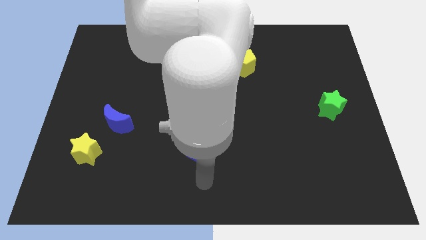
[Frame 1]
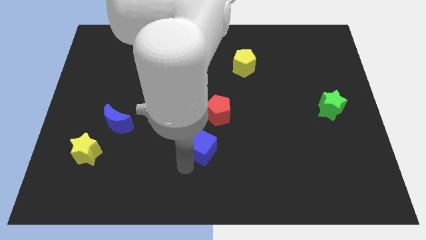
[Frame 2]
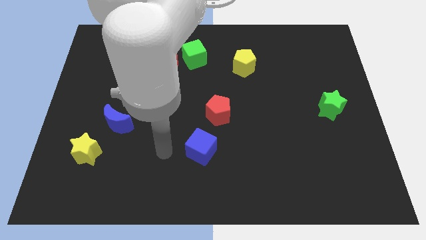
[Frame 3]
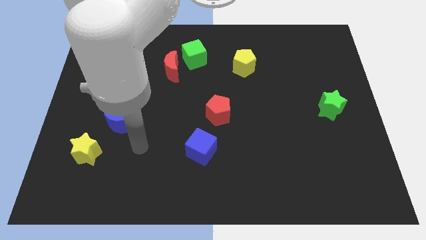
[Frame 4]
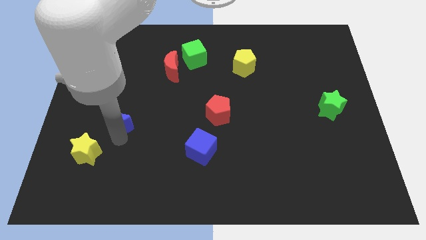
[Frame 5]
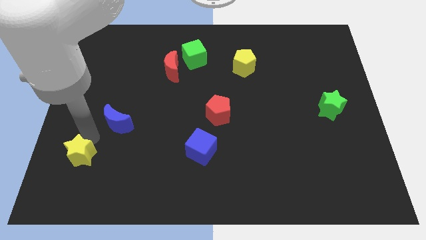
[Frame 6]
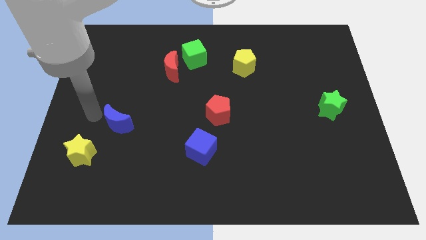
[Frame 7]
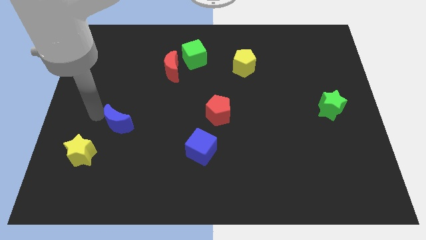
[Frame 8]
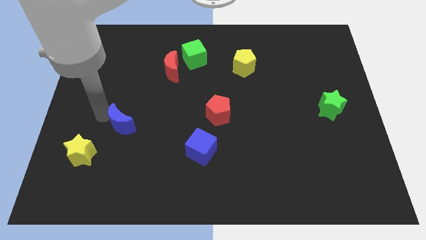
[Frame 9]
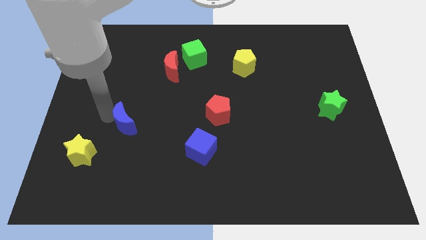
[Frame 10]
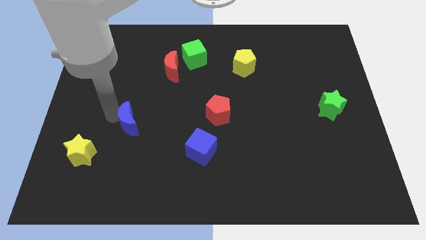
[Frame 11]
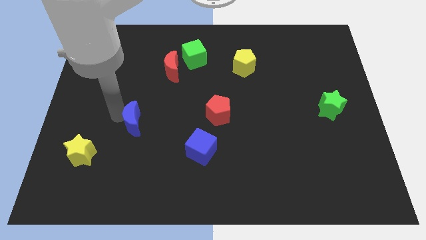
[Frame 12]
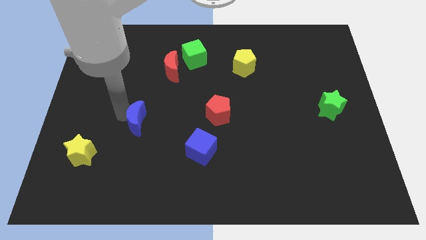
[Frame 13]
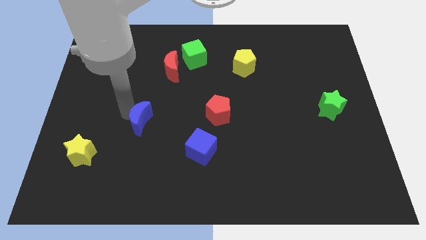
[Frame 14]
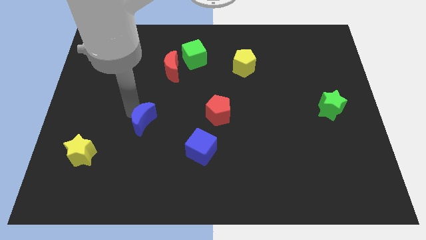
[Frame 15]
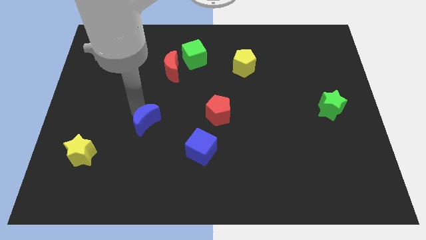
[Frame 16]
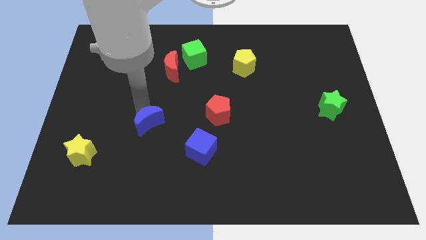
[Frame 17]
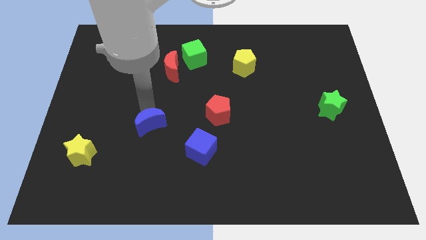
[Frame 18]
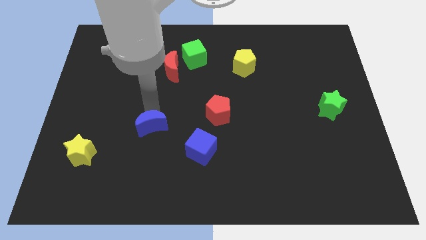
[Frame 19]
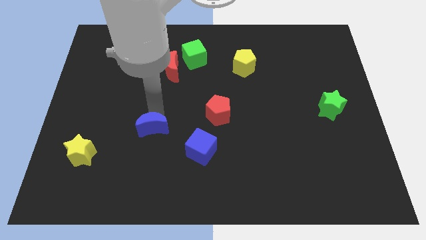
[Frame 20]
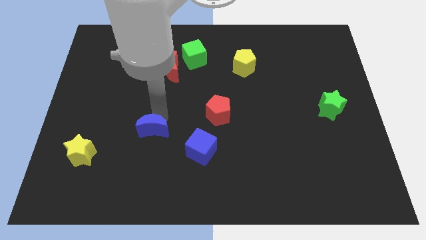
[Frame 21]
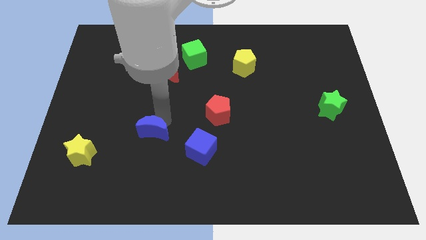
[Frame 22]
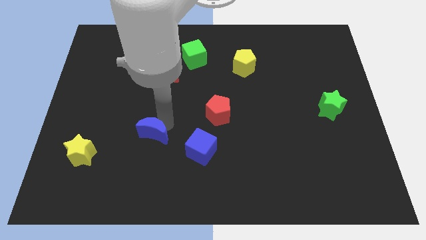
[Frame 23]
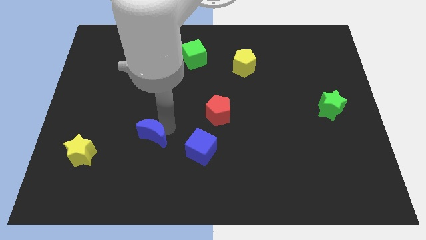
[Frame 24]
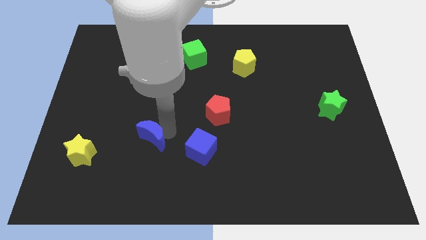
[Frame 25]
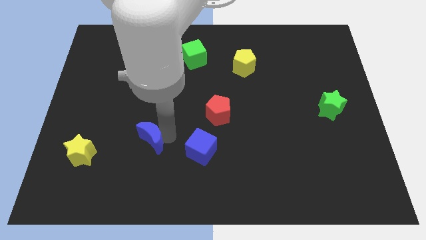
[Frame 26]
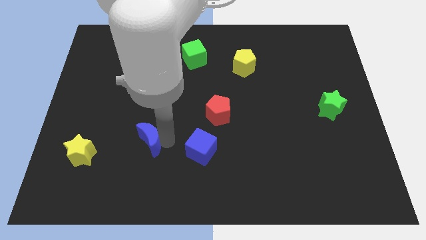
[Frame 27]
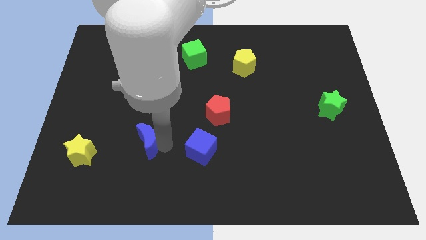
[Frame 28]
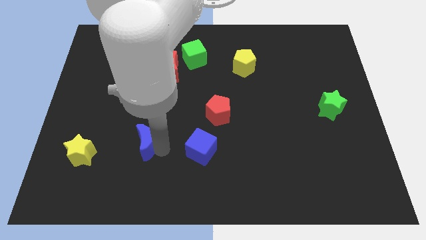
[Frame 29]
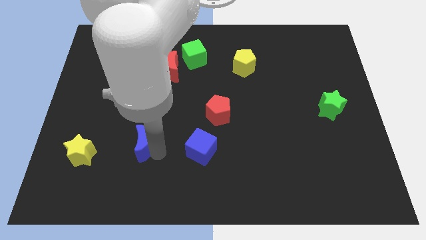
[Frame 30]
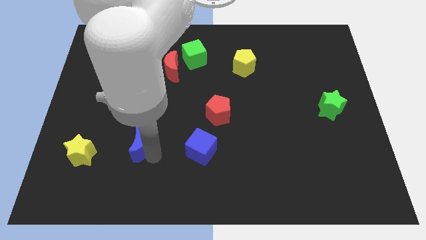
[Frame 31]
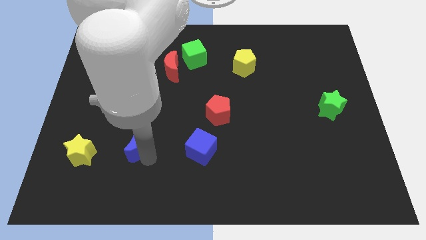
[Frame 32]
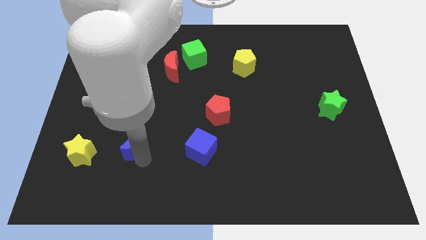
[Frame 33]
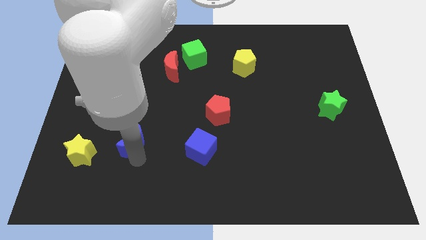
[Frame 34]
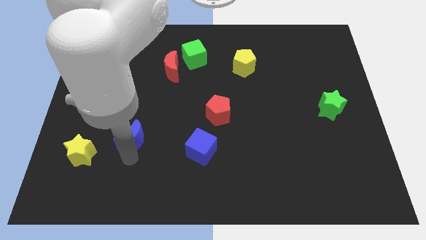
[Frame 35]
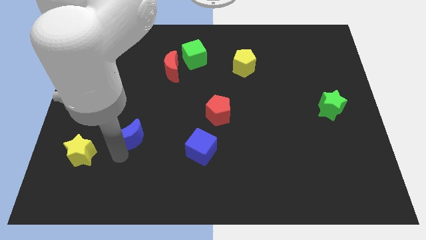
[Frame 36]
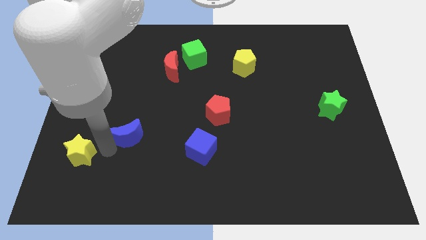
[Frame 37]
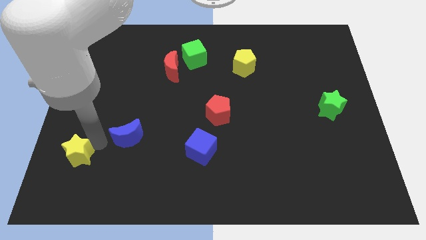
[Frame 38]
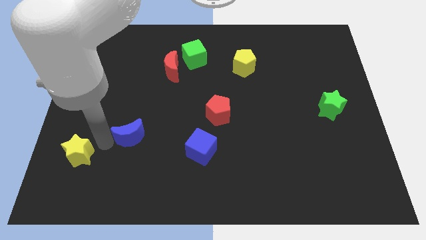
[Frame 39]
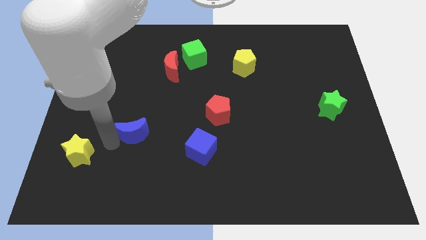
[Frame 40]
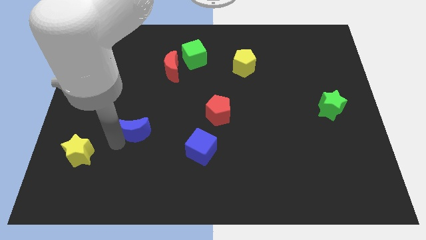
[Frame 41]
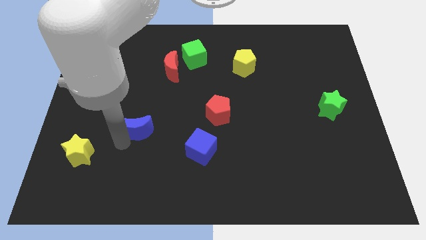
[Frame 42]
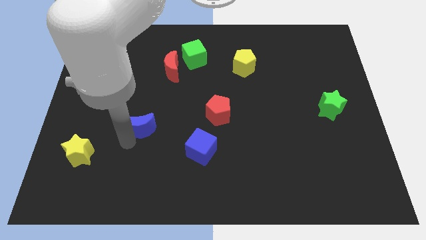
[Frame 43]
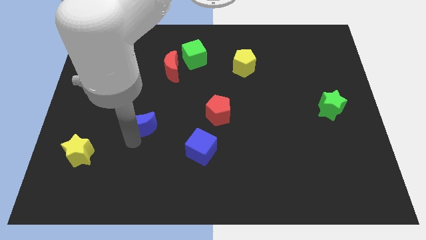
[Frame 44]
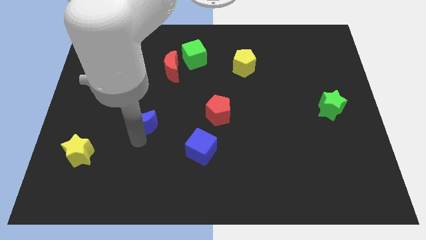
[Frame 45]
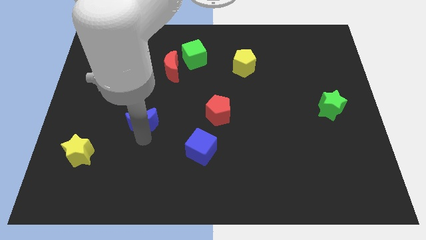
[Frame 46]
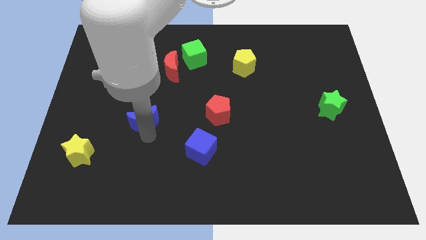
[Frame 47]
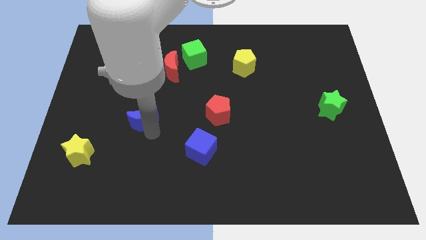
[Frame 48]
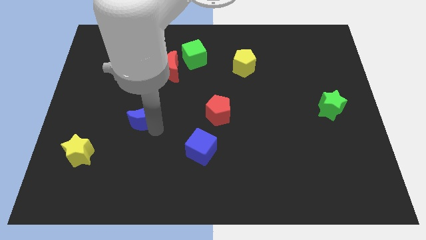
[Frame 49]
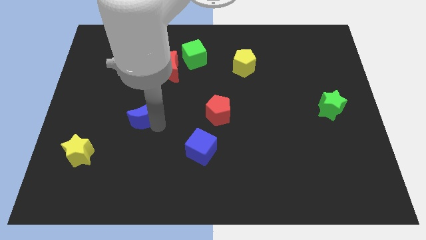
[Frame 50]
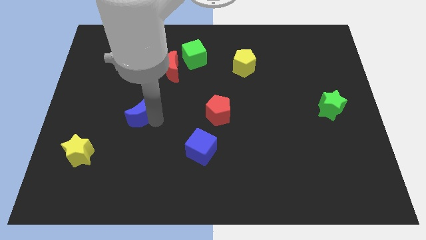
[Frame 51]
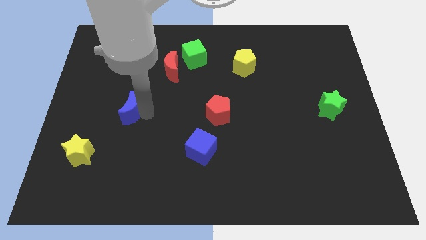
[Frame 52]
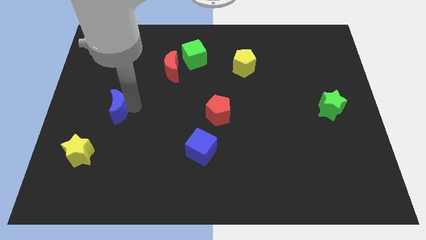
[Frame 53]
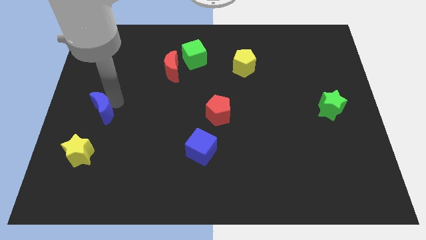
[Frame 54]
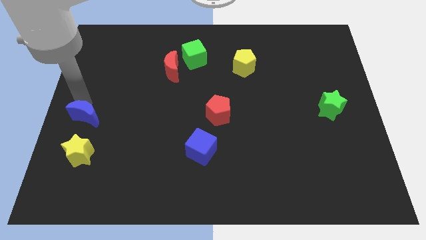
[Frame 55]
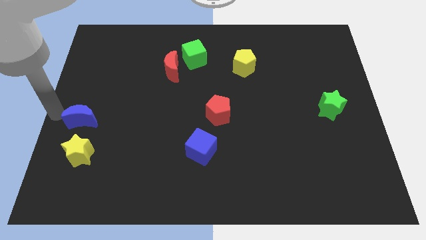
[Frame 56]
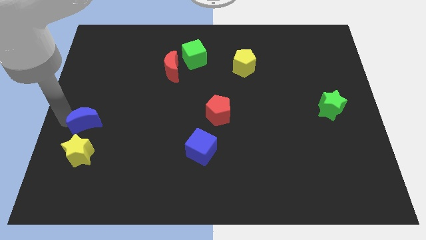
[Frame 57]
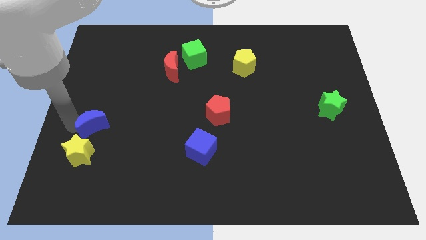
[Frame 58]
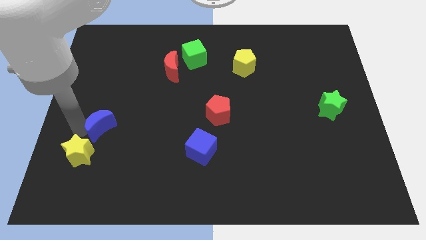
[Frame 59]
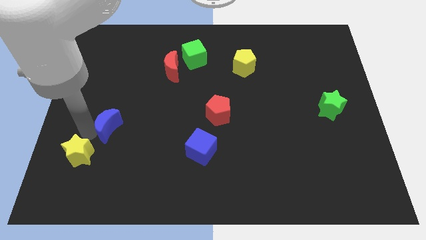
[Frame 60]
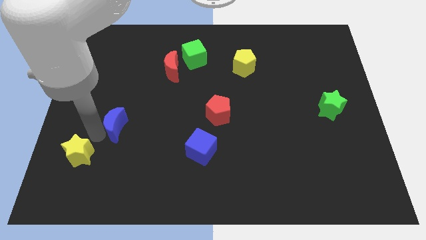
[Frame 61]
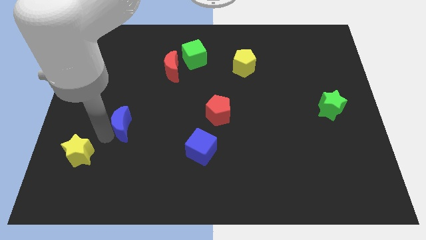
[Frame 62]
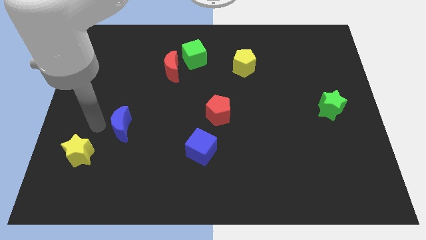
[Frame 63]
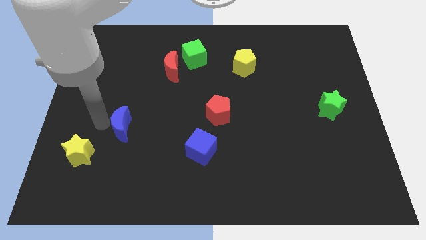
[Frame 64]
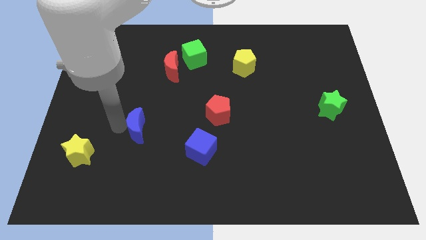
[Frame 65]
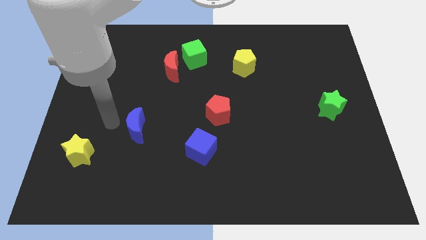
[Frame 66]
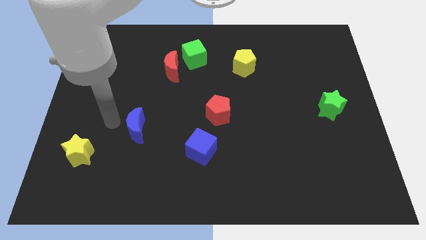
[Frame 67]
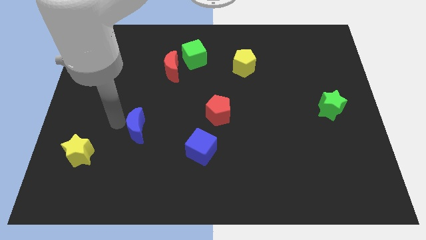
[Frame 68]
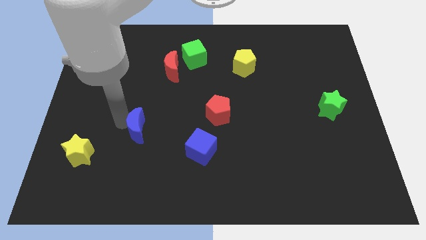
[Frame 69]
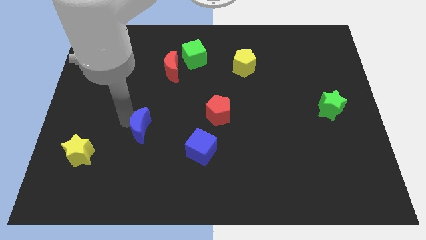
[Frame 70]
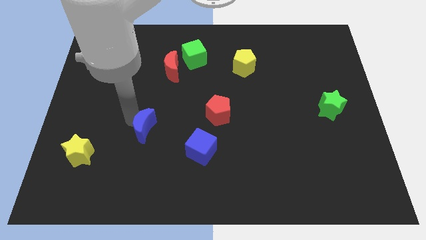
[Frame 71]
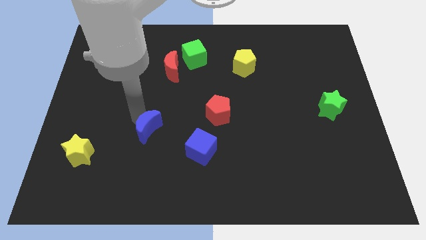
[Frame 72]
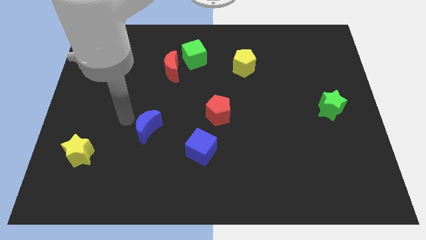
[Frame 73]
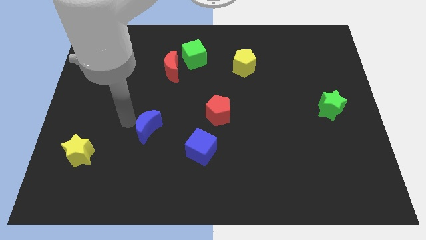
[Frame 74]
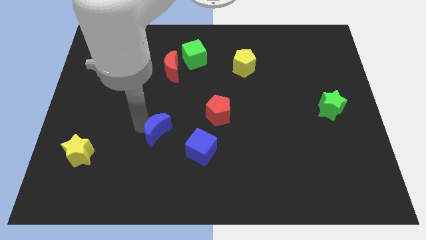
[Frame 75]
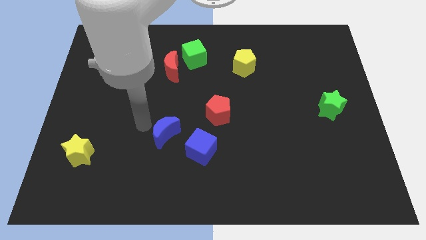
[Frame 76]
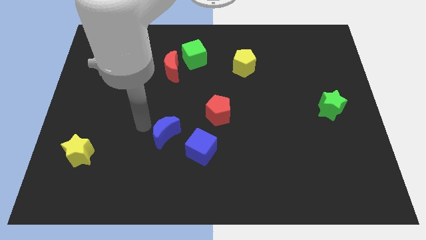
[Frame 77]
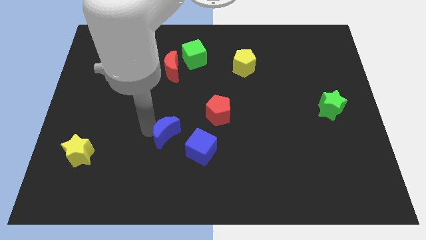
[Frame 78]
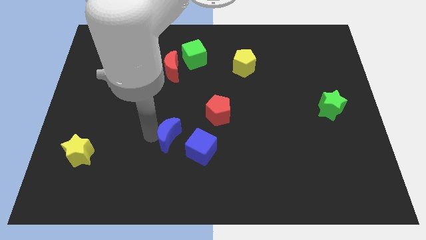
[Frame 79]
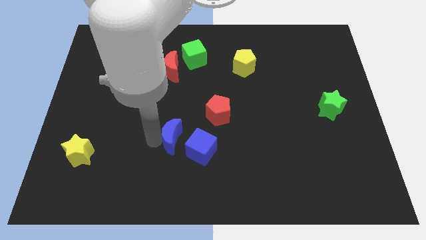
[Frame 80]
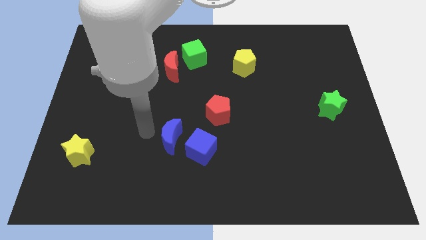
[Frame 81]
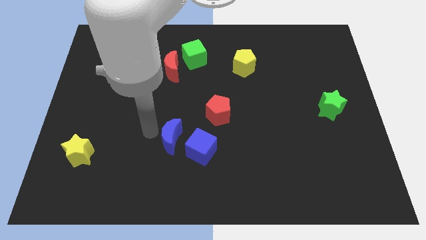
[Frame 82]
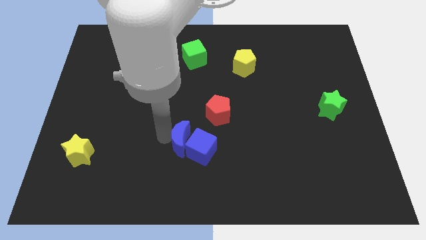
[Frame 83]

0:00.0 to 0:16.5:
slide the blue moon to the blue cube
